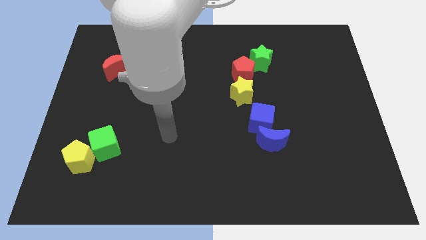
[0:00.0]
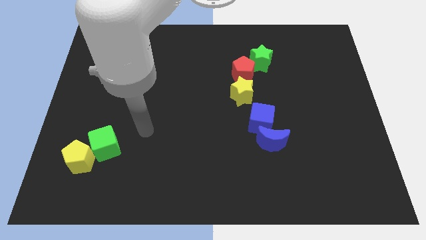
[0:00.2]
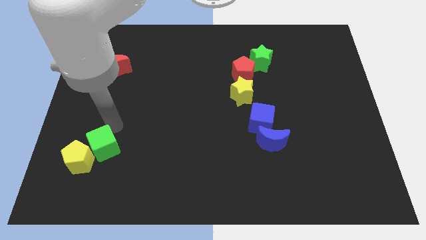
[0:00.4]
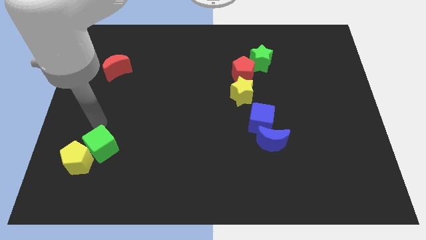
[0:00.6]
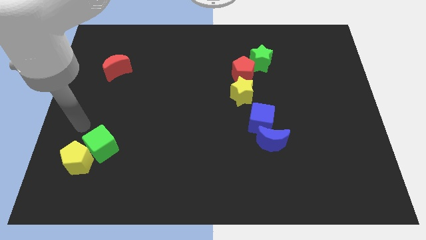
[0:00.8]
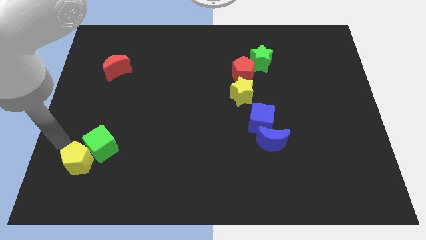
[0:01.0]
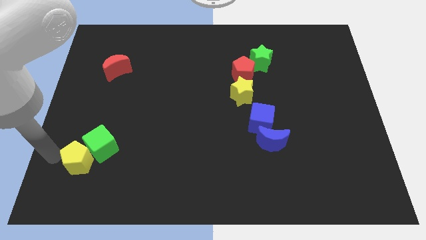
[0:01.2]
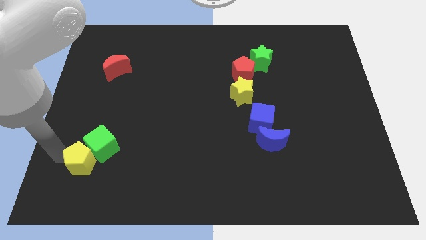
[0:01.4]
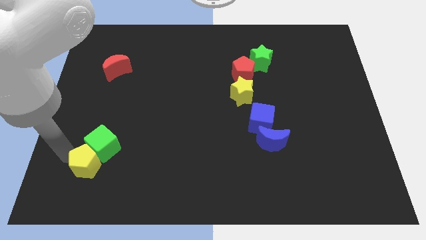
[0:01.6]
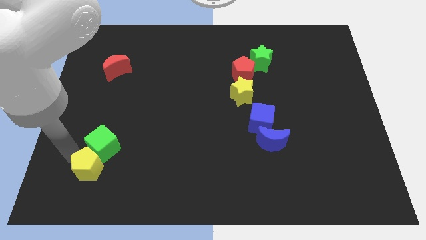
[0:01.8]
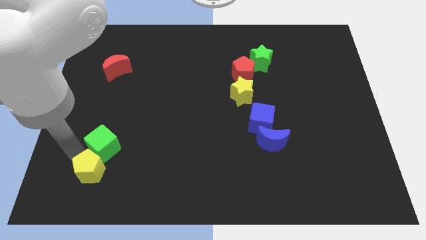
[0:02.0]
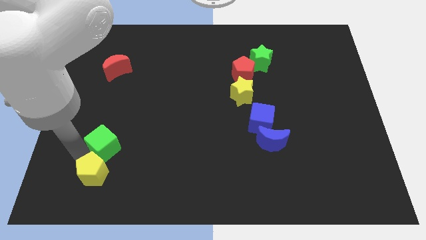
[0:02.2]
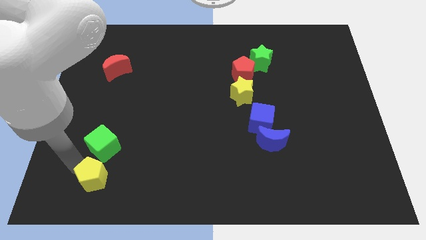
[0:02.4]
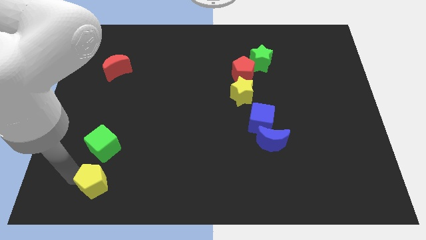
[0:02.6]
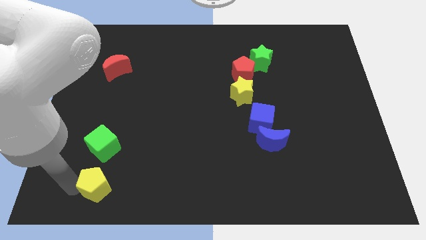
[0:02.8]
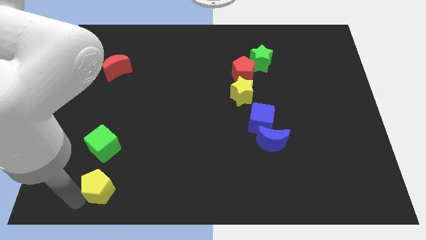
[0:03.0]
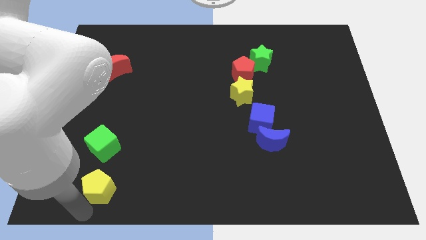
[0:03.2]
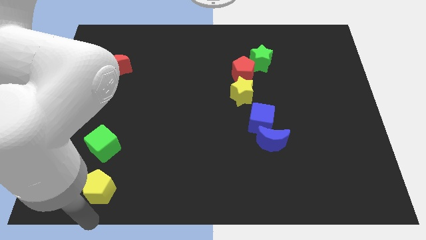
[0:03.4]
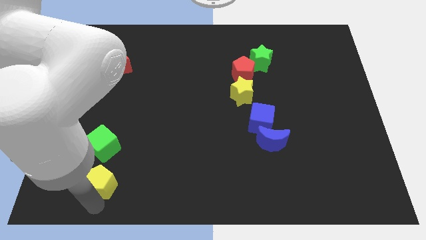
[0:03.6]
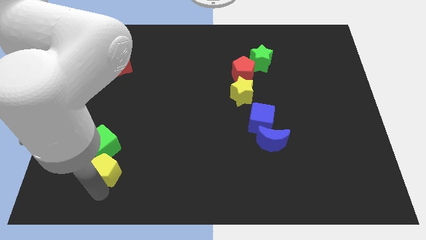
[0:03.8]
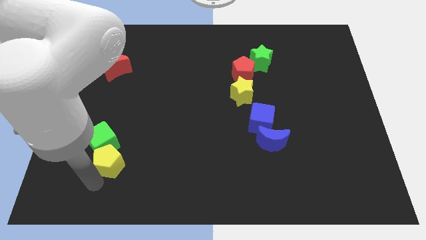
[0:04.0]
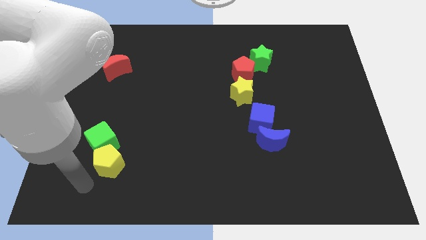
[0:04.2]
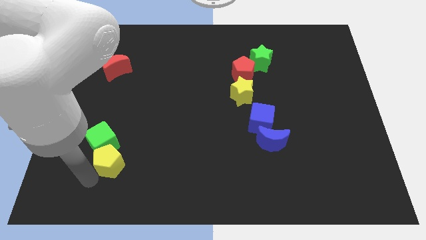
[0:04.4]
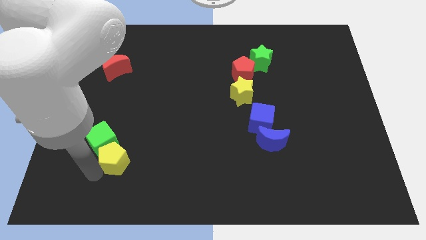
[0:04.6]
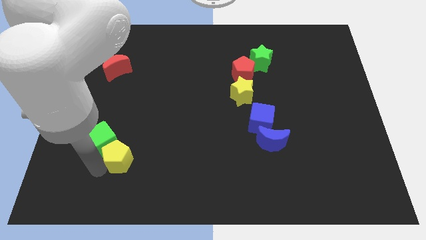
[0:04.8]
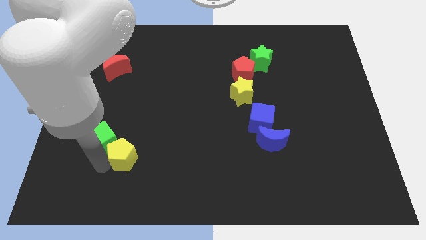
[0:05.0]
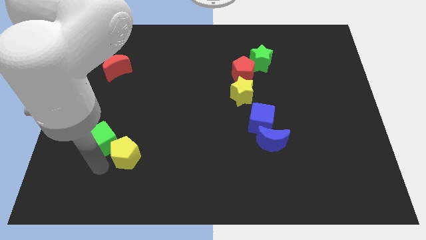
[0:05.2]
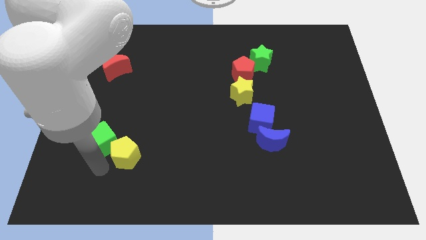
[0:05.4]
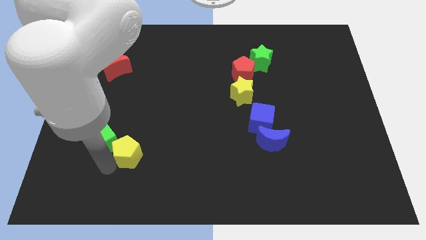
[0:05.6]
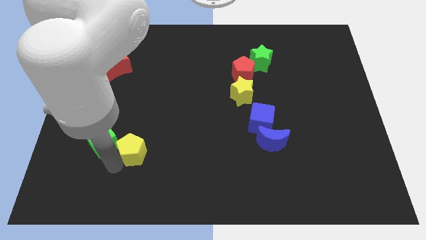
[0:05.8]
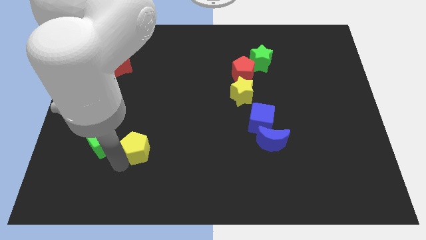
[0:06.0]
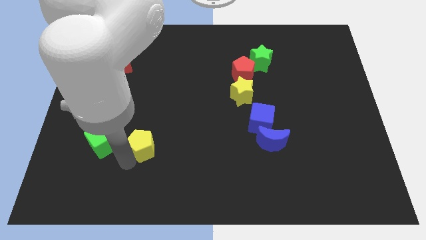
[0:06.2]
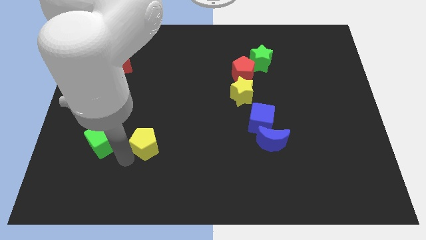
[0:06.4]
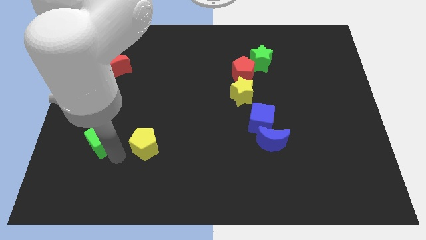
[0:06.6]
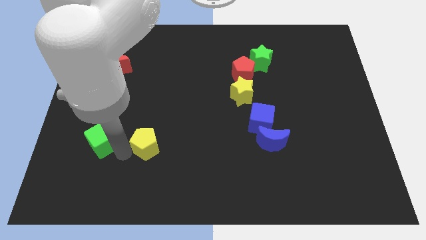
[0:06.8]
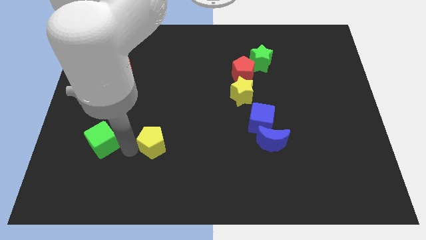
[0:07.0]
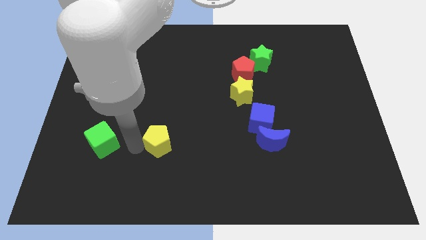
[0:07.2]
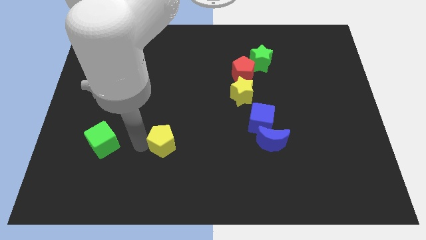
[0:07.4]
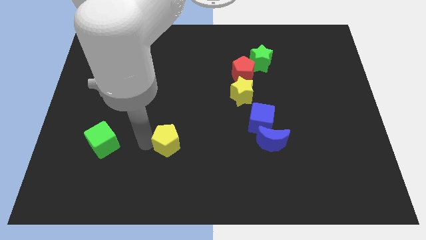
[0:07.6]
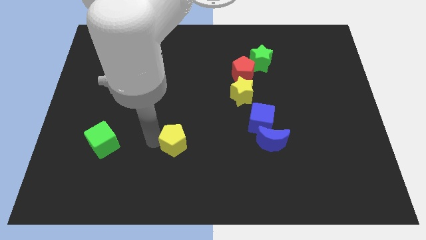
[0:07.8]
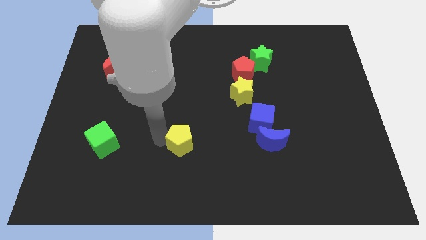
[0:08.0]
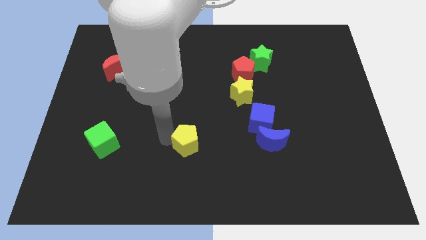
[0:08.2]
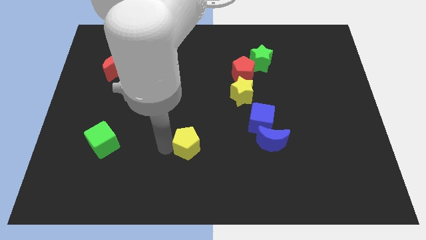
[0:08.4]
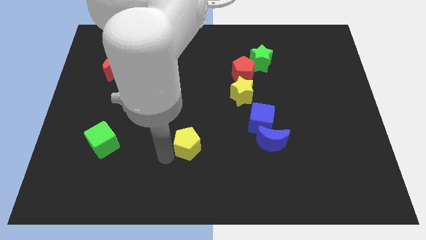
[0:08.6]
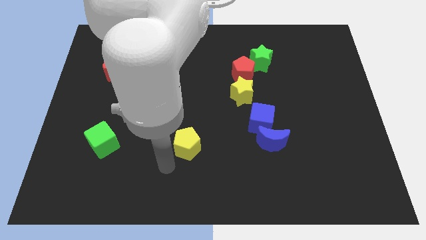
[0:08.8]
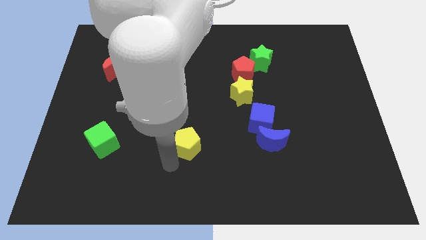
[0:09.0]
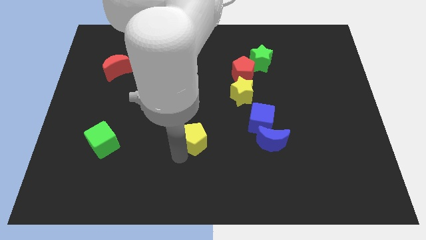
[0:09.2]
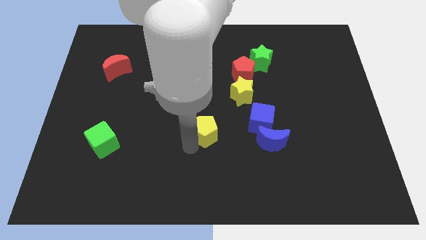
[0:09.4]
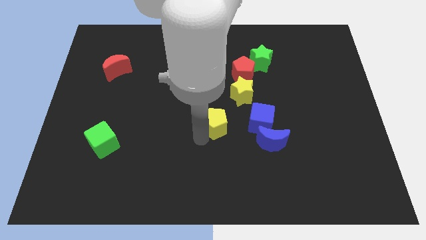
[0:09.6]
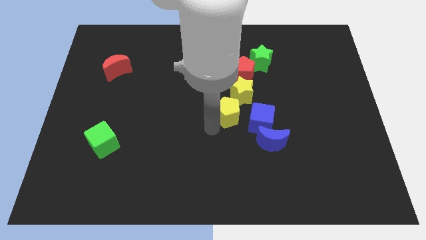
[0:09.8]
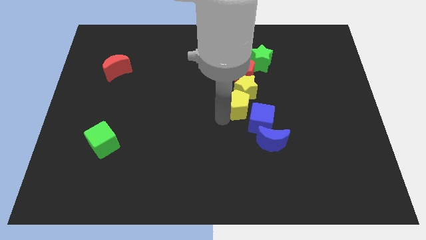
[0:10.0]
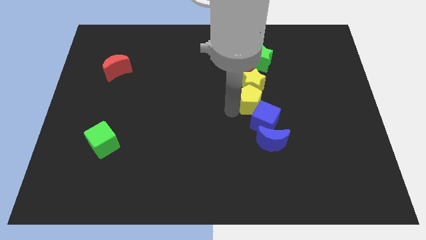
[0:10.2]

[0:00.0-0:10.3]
slide the yellow pentagon to the top of the blue moon

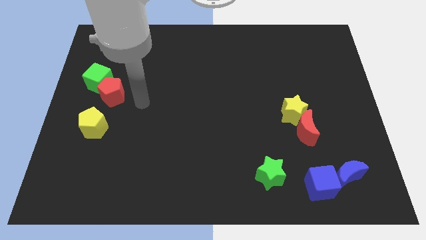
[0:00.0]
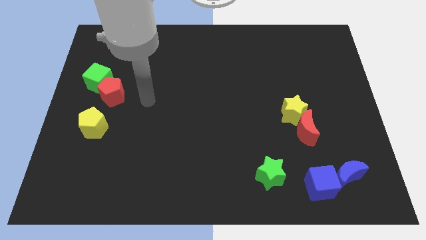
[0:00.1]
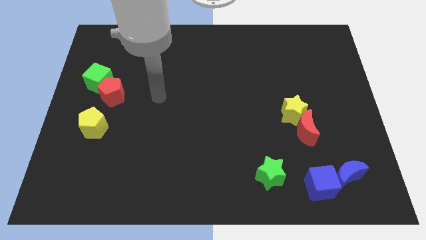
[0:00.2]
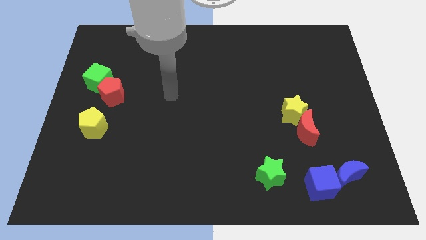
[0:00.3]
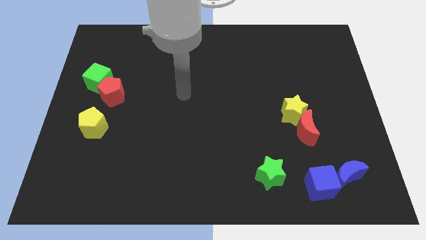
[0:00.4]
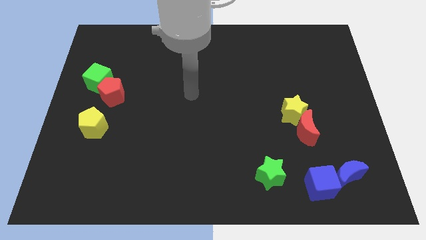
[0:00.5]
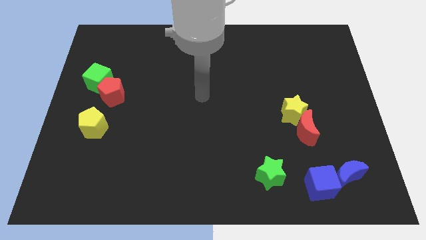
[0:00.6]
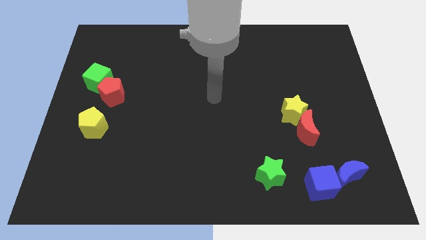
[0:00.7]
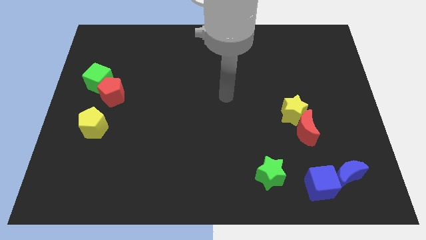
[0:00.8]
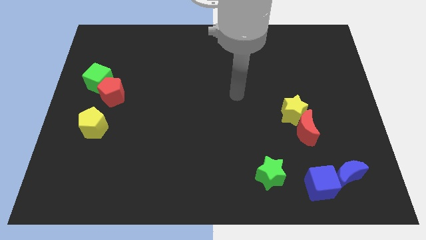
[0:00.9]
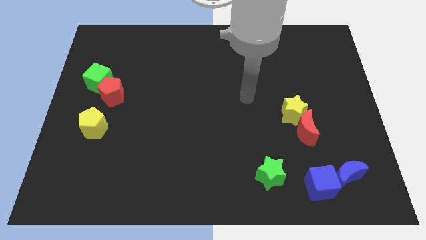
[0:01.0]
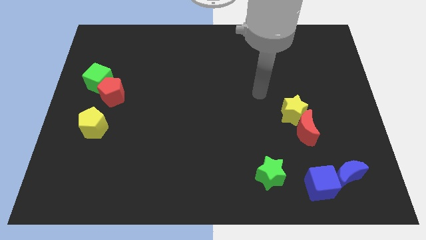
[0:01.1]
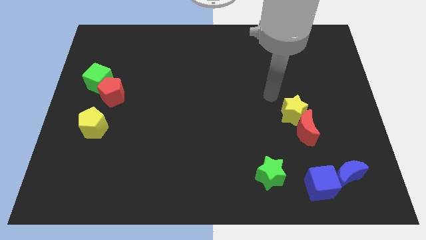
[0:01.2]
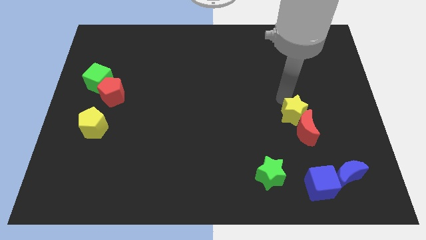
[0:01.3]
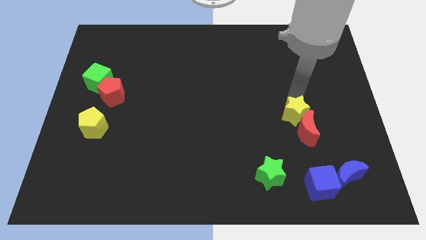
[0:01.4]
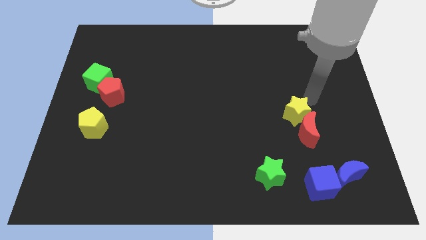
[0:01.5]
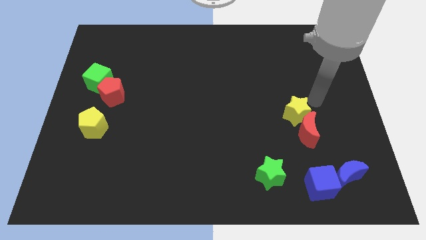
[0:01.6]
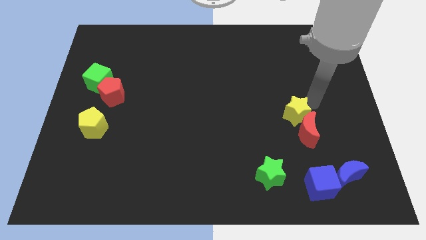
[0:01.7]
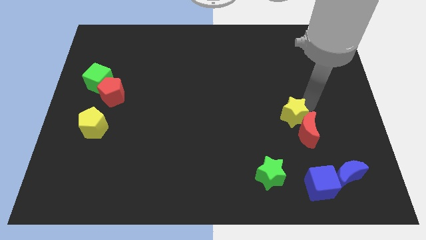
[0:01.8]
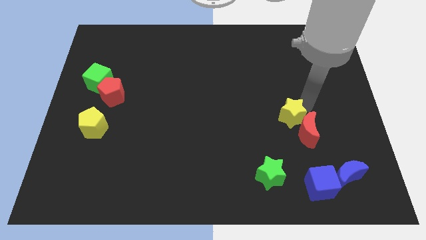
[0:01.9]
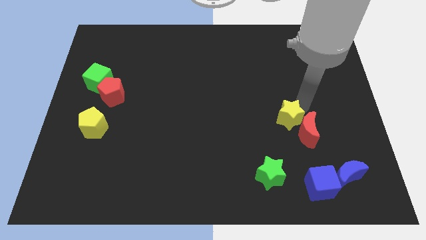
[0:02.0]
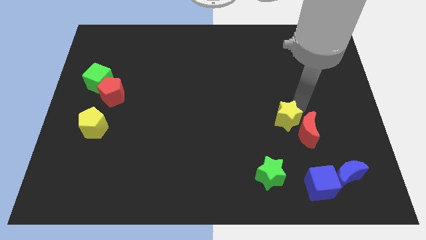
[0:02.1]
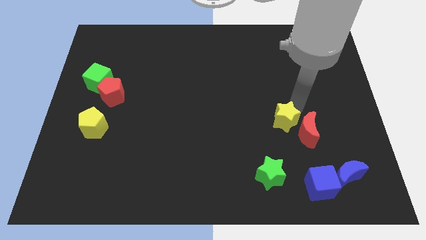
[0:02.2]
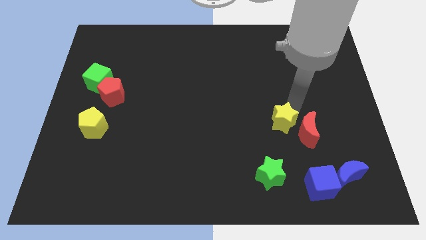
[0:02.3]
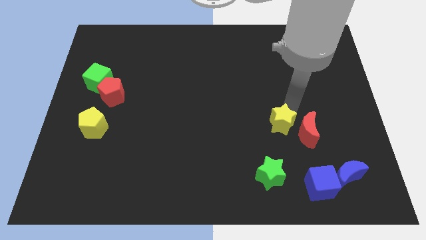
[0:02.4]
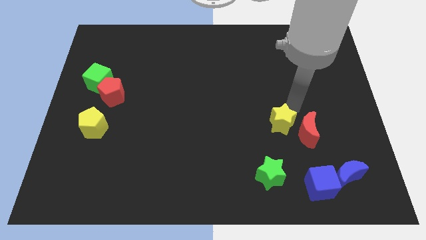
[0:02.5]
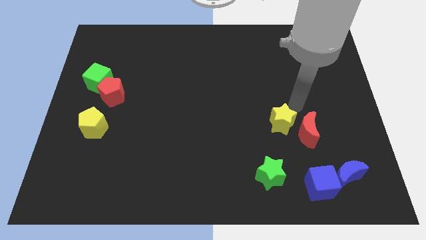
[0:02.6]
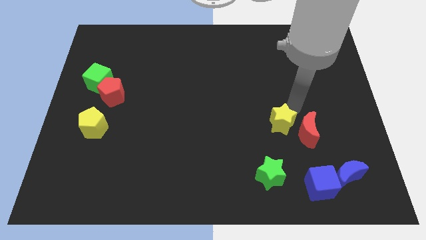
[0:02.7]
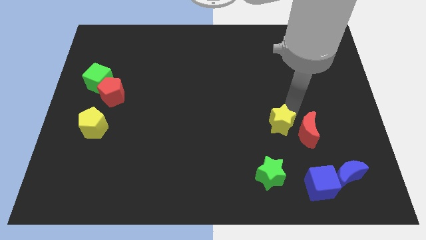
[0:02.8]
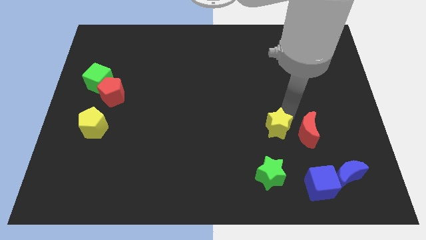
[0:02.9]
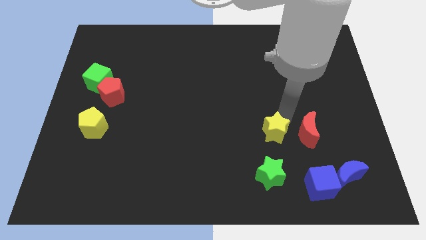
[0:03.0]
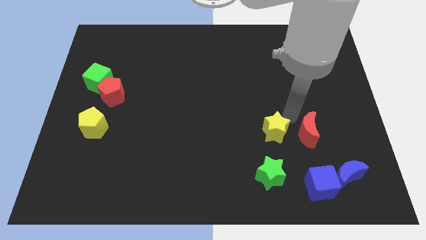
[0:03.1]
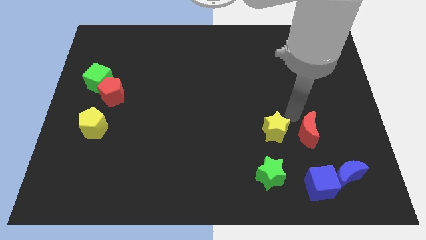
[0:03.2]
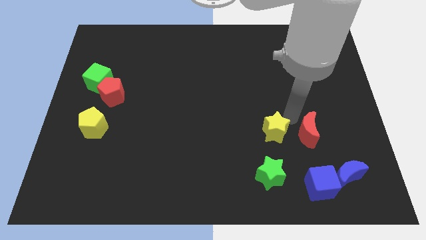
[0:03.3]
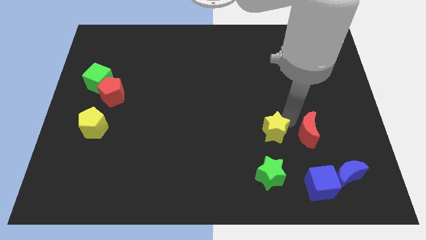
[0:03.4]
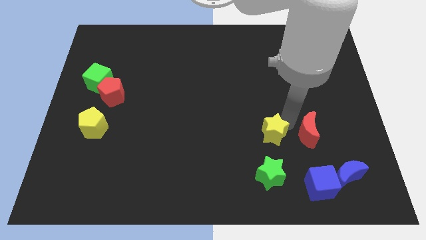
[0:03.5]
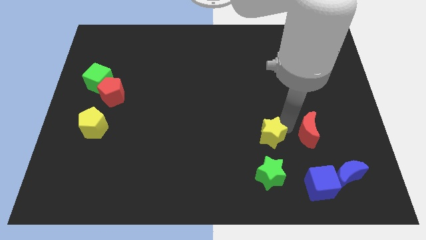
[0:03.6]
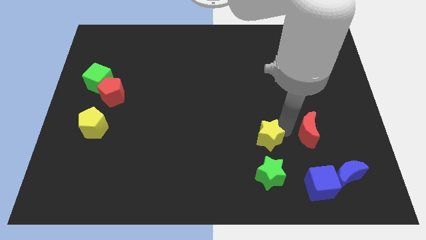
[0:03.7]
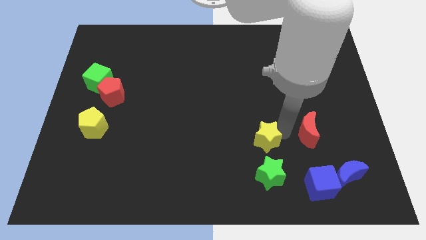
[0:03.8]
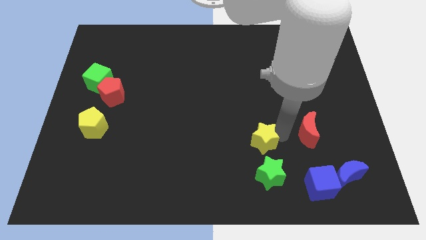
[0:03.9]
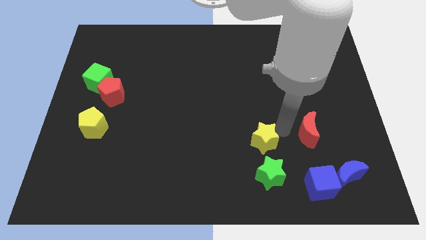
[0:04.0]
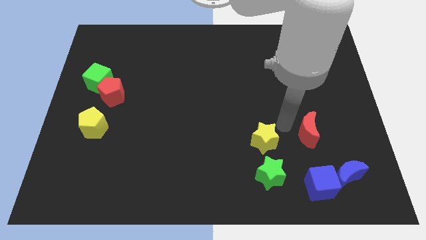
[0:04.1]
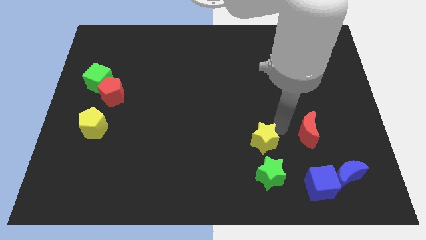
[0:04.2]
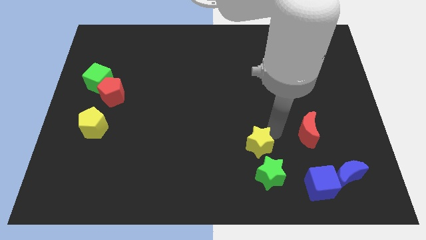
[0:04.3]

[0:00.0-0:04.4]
slide the yellow star diagonally up and to the left of the green star
